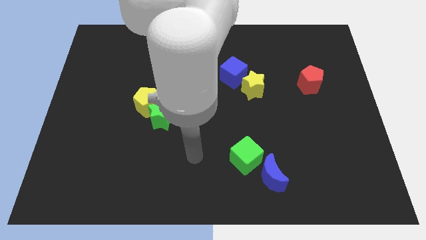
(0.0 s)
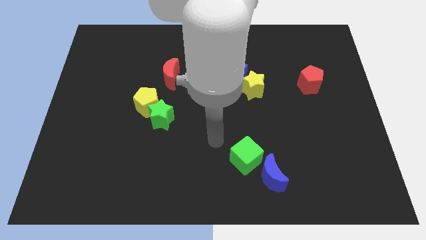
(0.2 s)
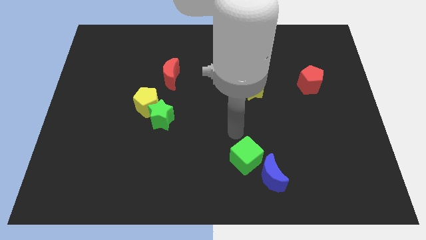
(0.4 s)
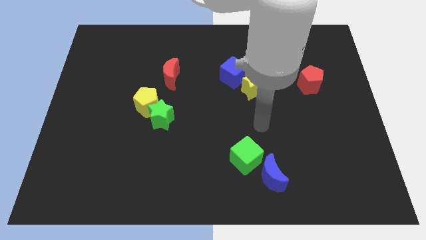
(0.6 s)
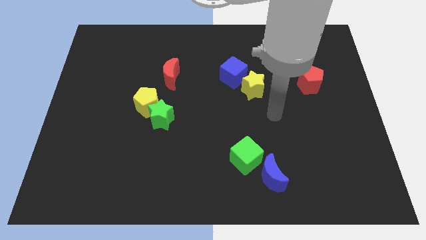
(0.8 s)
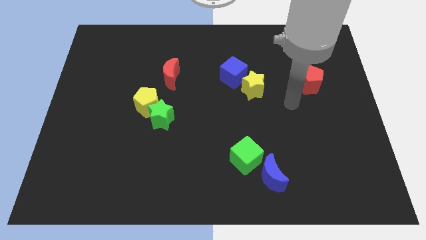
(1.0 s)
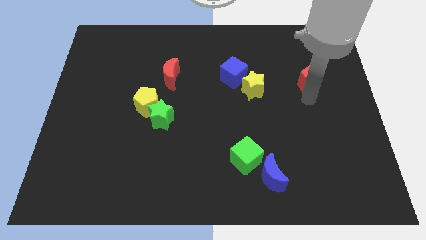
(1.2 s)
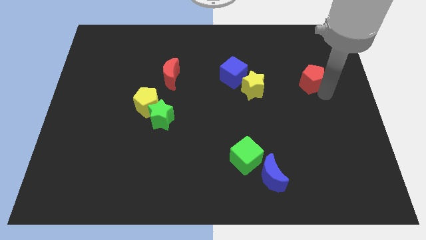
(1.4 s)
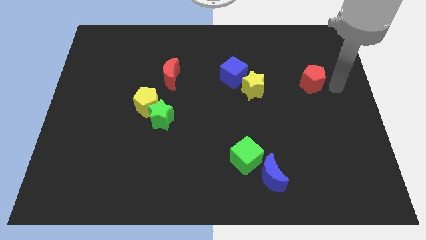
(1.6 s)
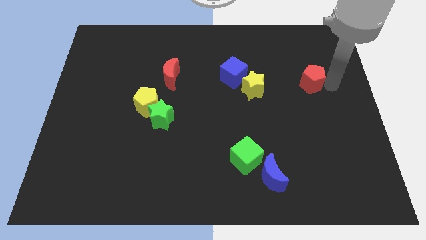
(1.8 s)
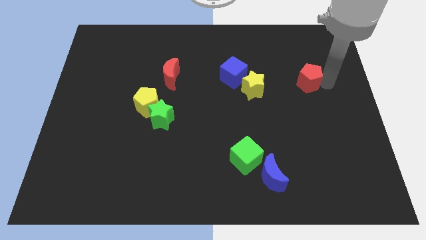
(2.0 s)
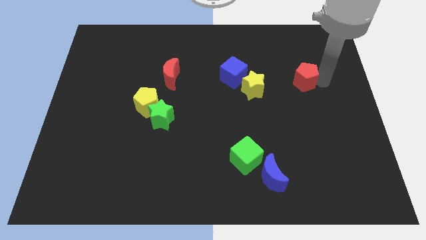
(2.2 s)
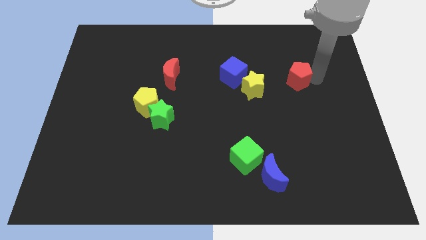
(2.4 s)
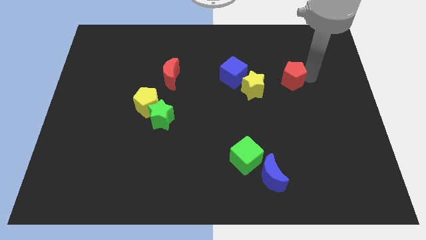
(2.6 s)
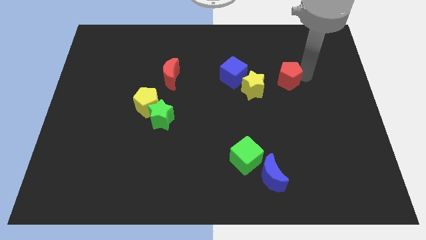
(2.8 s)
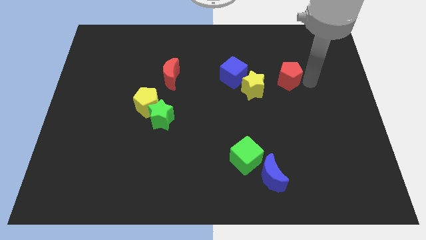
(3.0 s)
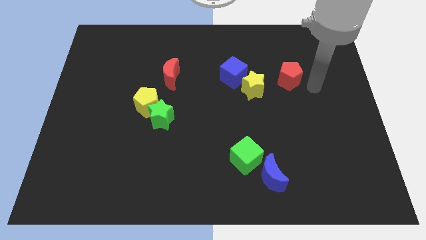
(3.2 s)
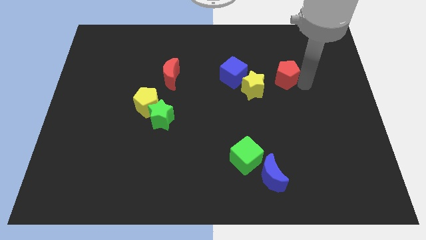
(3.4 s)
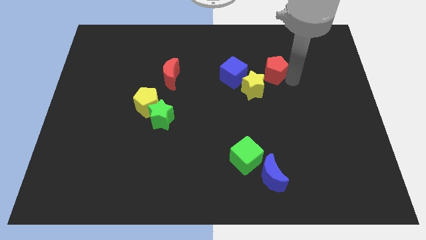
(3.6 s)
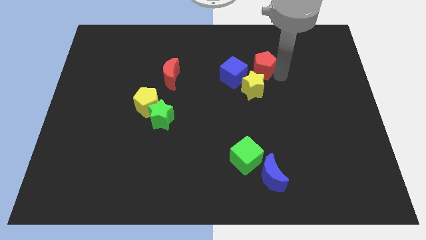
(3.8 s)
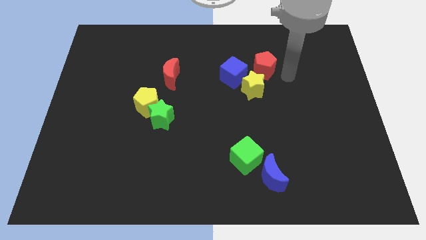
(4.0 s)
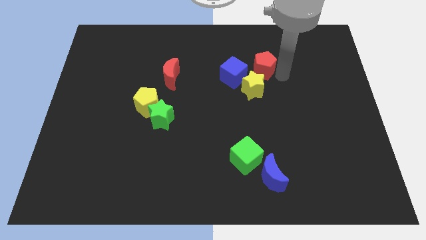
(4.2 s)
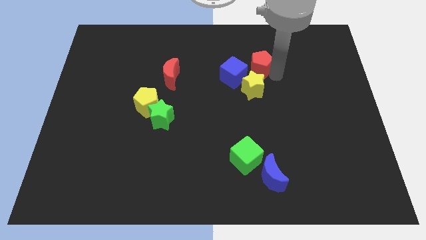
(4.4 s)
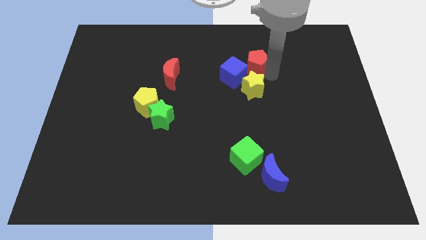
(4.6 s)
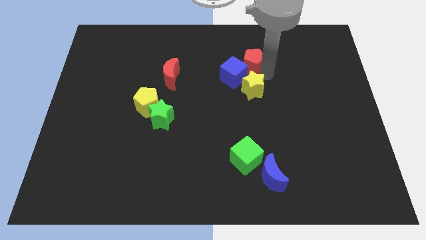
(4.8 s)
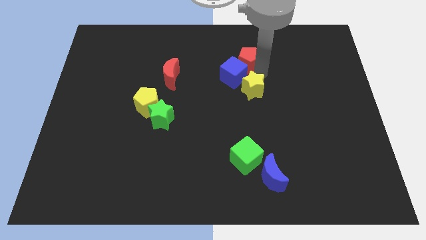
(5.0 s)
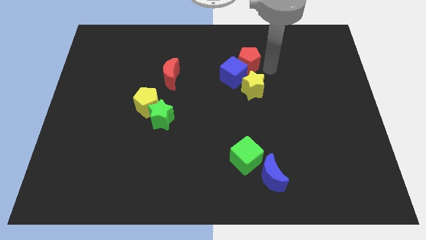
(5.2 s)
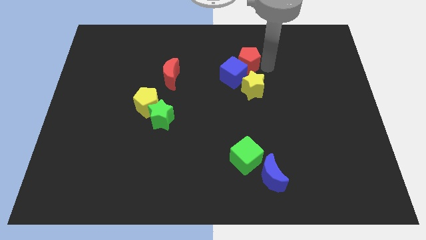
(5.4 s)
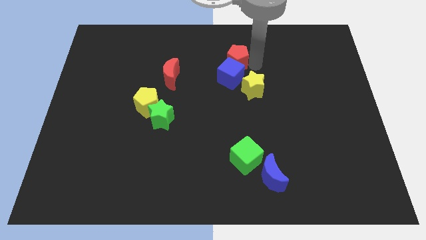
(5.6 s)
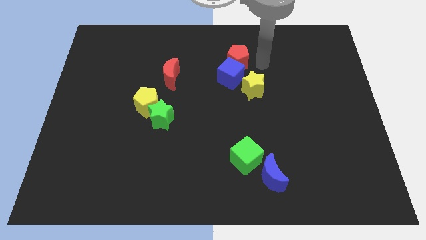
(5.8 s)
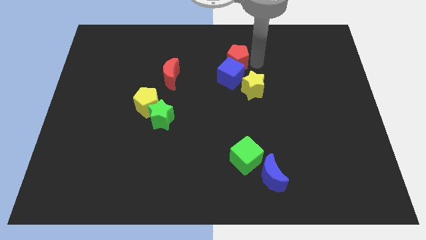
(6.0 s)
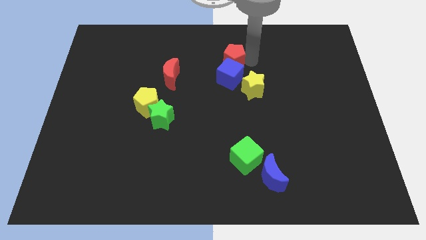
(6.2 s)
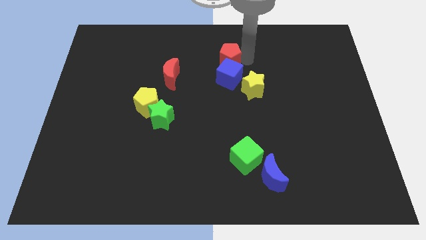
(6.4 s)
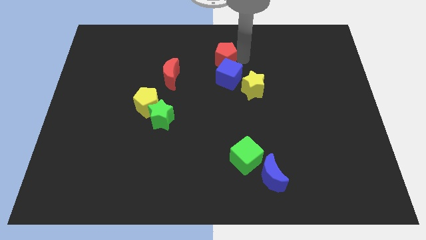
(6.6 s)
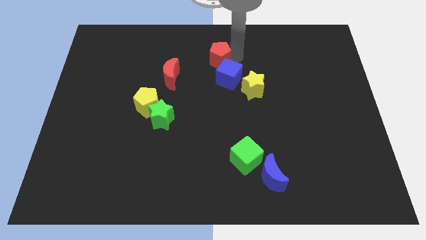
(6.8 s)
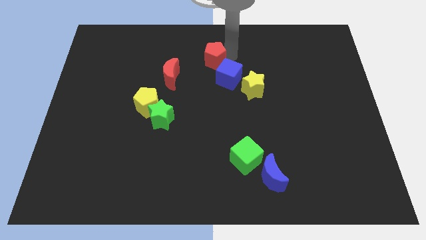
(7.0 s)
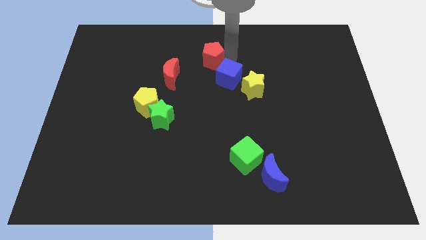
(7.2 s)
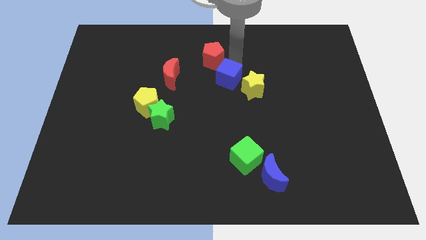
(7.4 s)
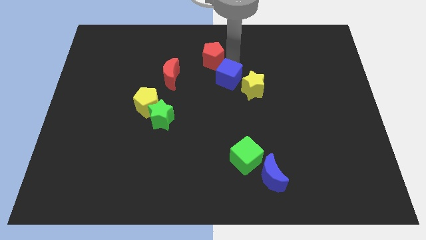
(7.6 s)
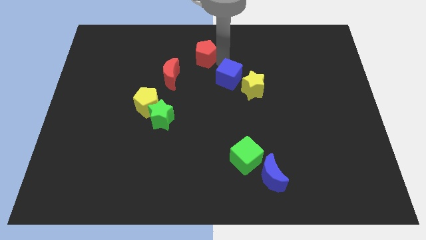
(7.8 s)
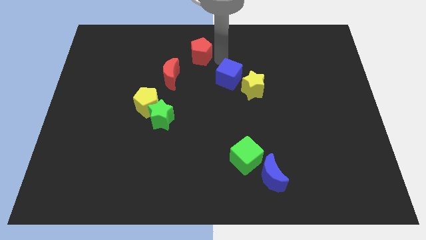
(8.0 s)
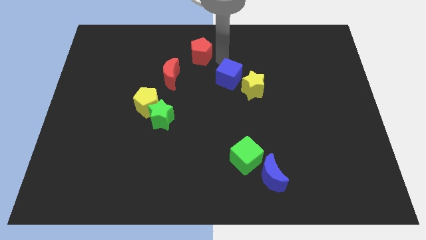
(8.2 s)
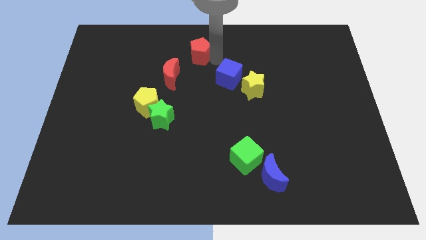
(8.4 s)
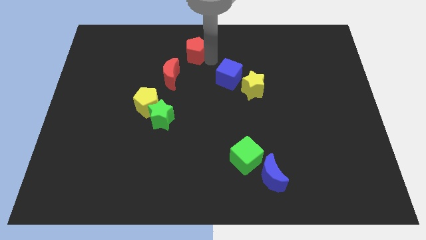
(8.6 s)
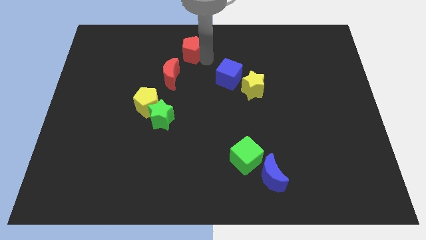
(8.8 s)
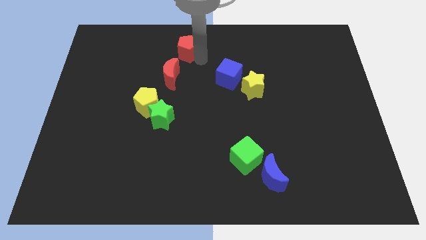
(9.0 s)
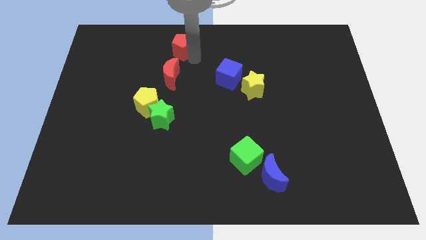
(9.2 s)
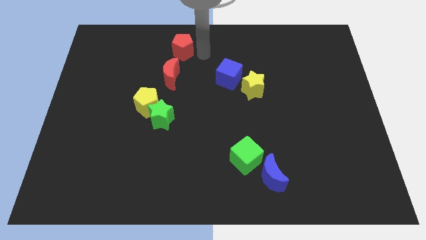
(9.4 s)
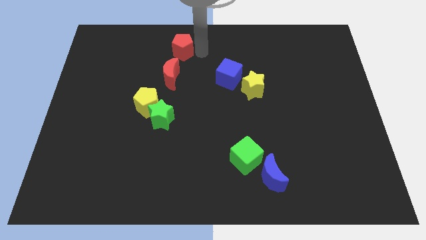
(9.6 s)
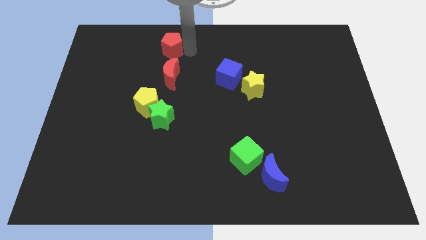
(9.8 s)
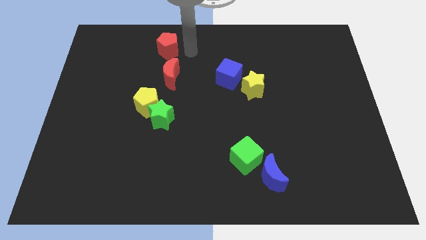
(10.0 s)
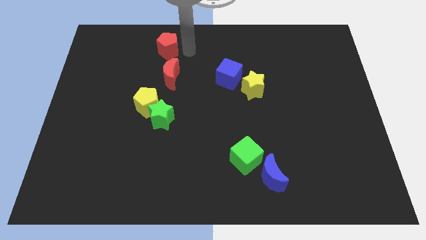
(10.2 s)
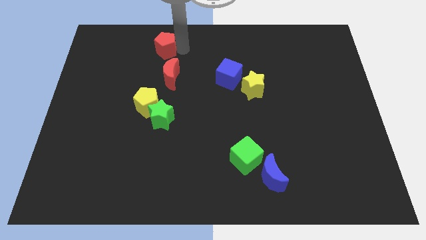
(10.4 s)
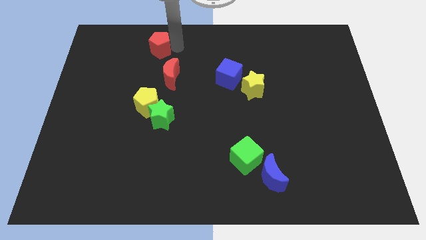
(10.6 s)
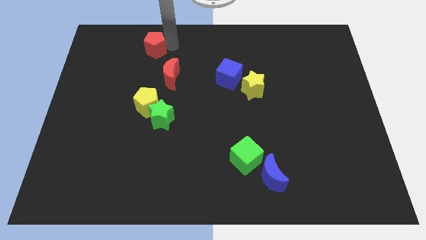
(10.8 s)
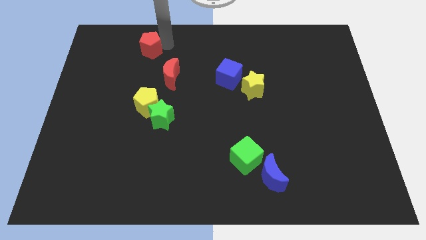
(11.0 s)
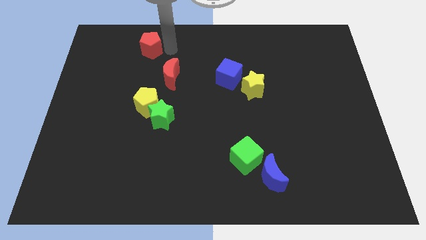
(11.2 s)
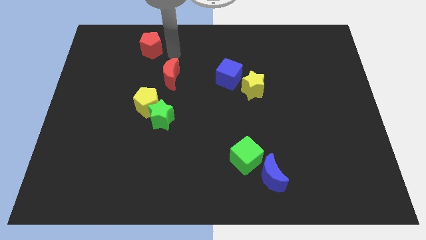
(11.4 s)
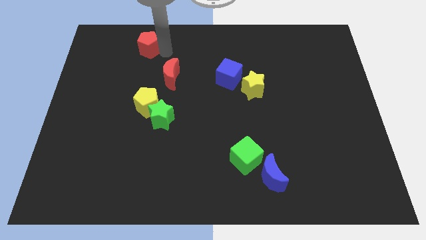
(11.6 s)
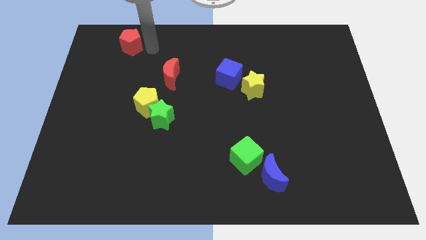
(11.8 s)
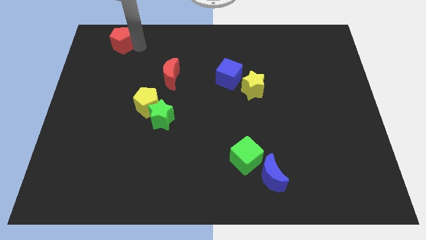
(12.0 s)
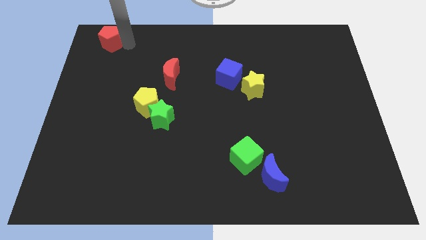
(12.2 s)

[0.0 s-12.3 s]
put the red pentagon to the top left of the board
